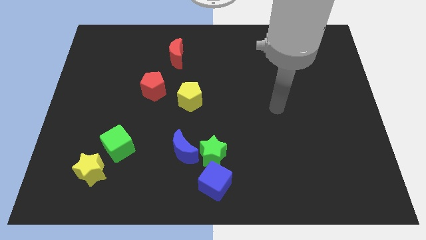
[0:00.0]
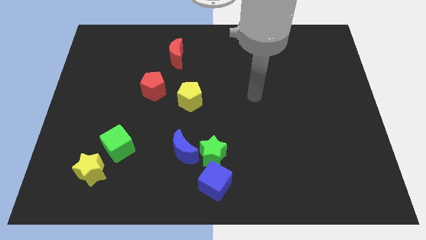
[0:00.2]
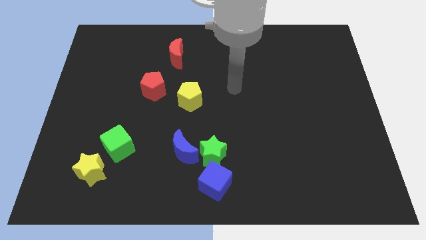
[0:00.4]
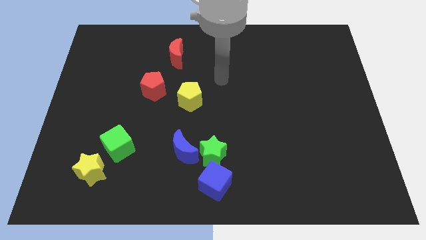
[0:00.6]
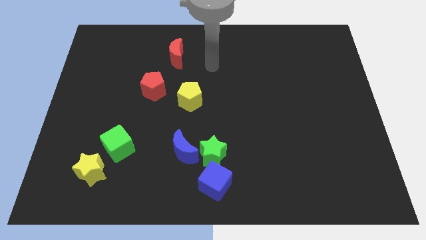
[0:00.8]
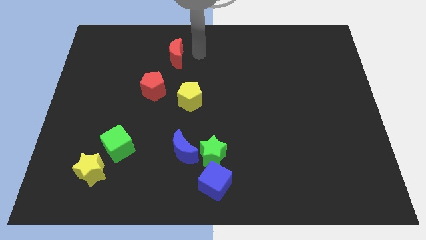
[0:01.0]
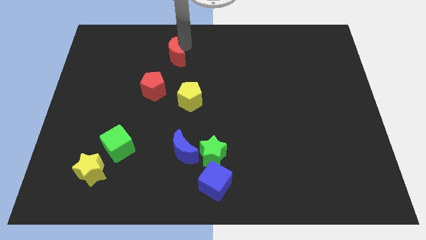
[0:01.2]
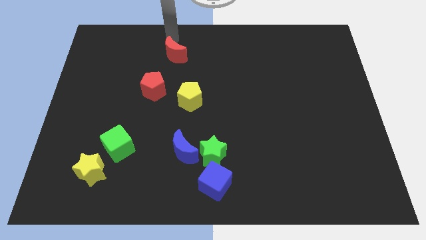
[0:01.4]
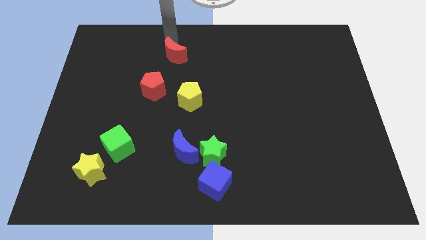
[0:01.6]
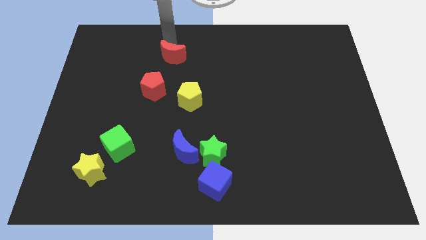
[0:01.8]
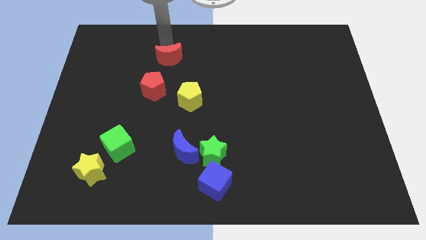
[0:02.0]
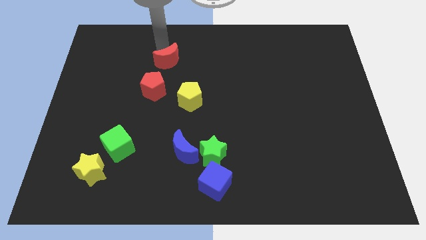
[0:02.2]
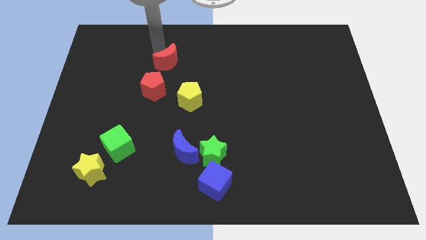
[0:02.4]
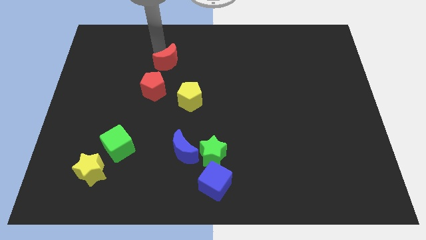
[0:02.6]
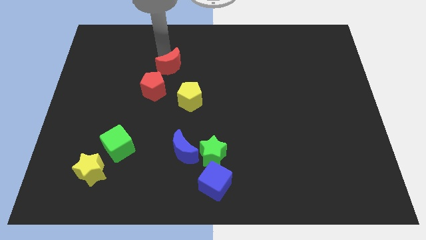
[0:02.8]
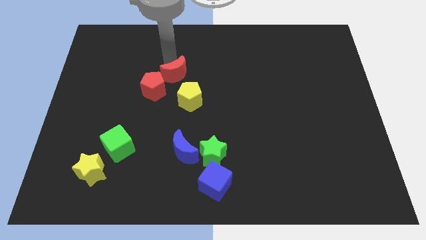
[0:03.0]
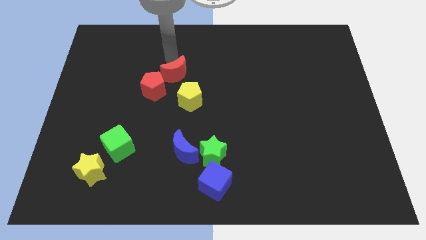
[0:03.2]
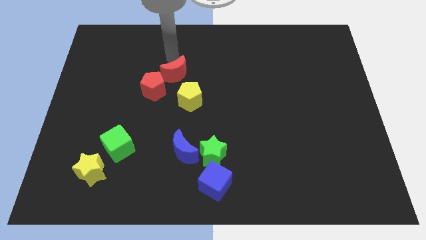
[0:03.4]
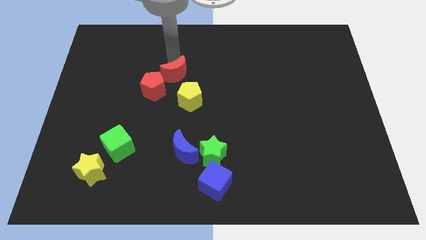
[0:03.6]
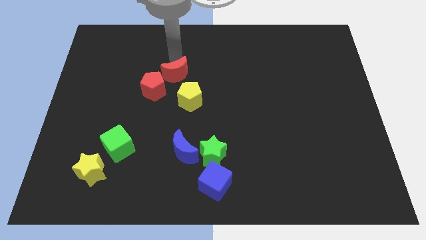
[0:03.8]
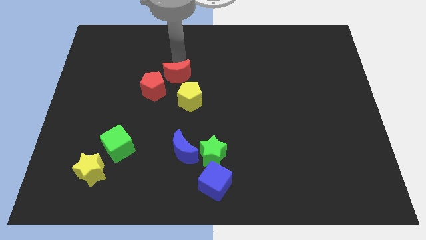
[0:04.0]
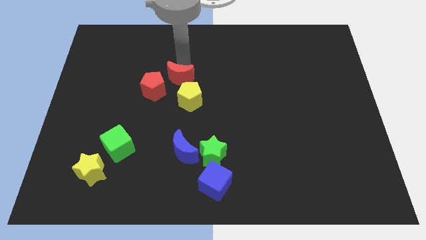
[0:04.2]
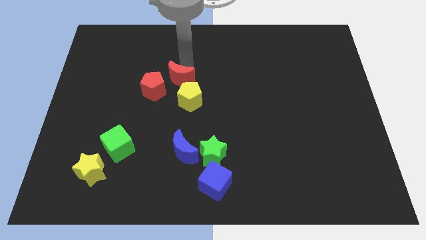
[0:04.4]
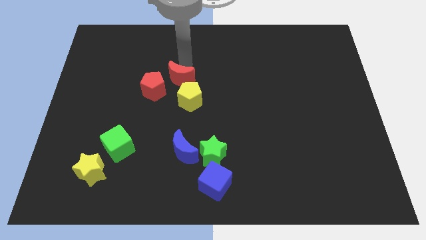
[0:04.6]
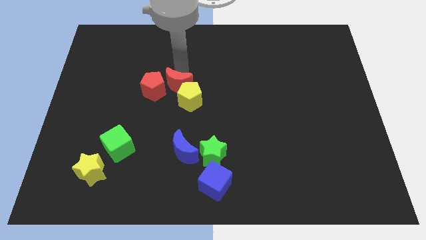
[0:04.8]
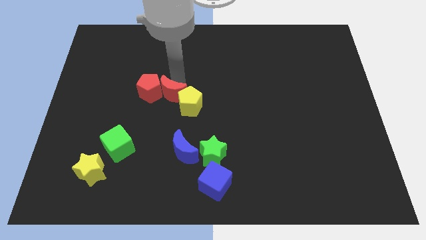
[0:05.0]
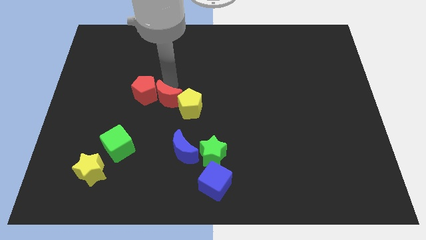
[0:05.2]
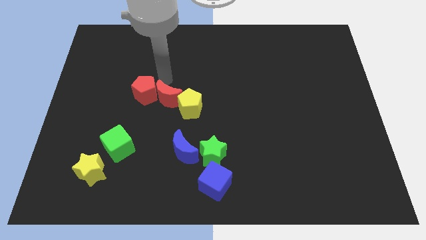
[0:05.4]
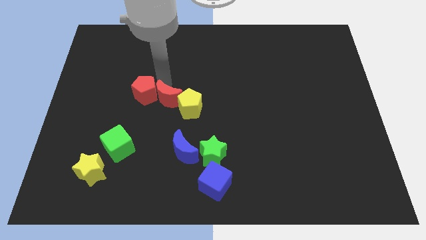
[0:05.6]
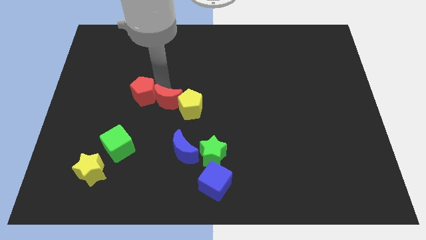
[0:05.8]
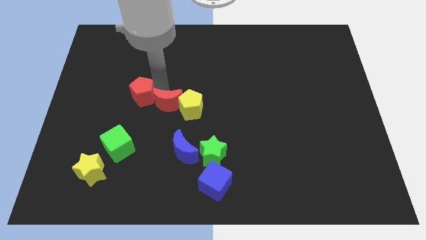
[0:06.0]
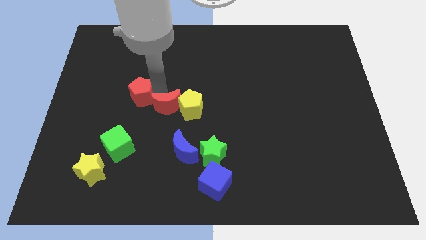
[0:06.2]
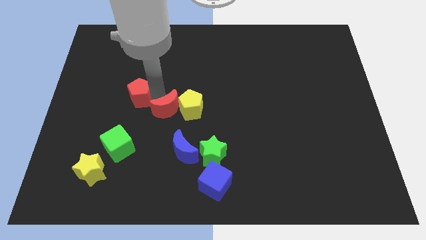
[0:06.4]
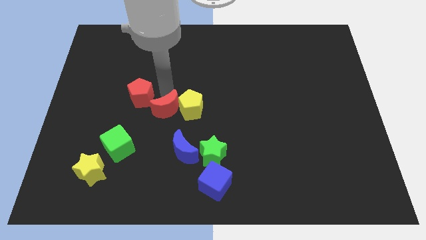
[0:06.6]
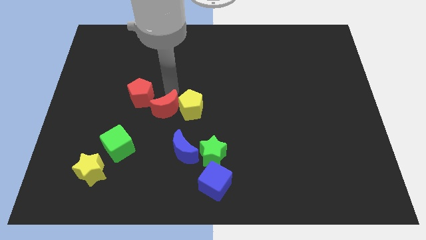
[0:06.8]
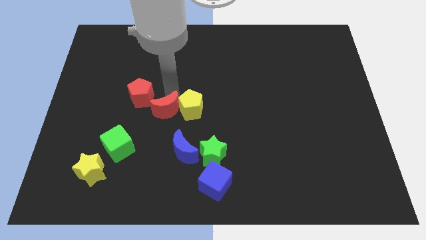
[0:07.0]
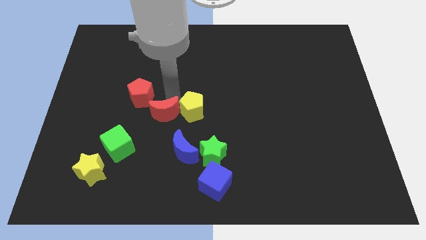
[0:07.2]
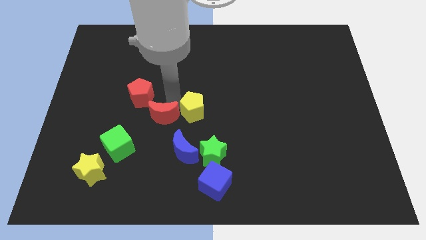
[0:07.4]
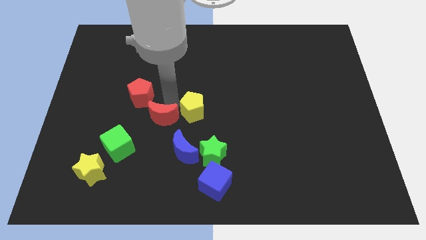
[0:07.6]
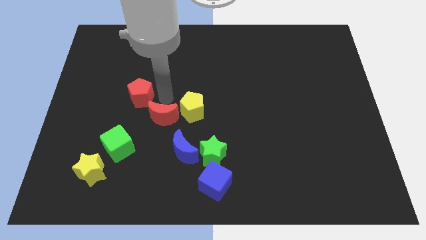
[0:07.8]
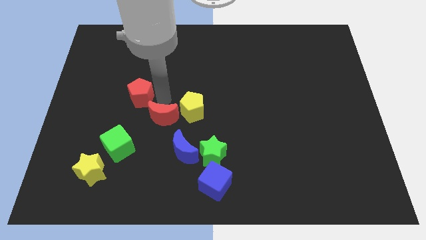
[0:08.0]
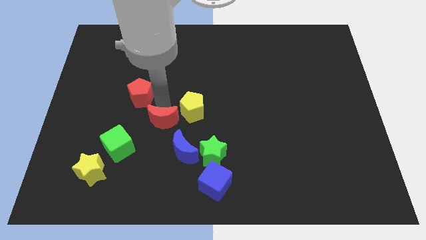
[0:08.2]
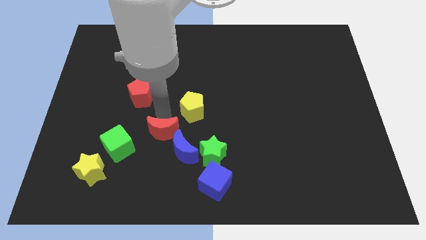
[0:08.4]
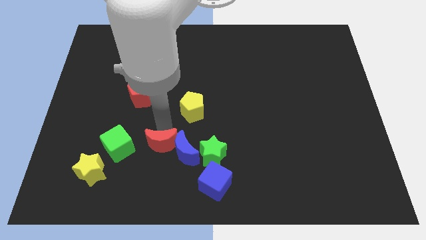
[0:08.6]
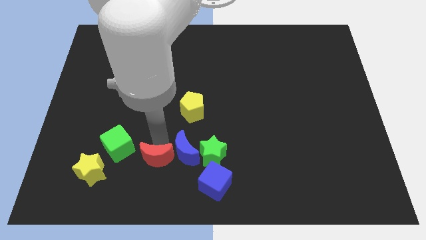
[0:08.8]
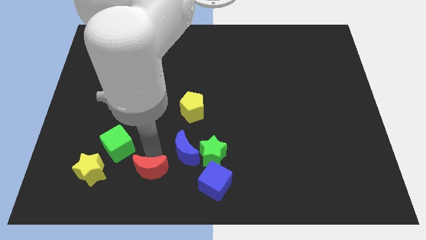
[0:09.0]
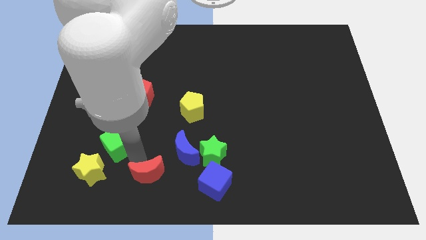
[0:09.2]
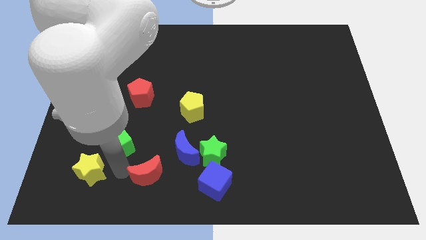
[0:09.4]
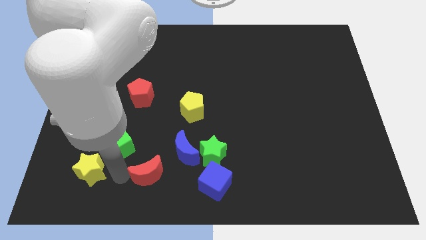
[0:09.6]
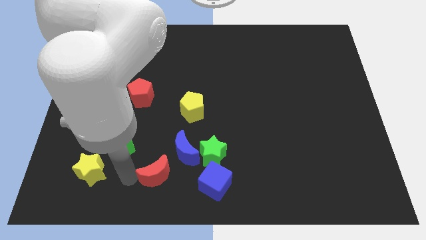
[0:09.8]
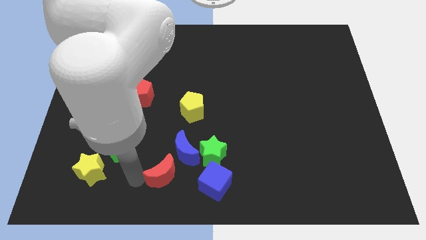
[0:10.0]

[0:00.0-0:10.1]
push the red moon to the bottom left of the green star

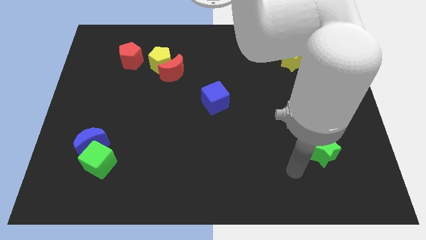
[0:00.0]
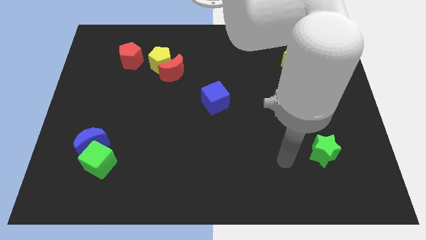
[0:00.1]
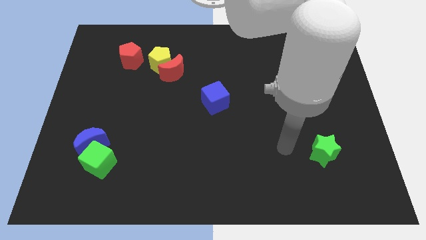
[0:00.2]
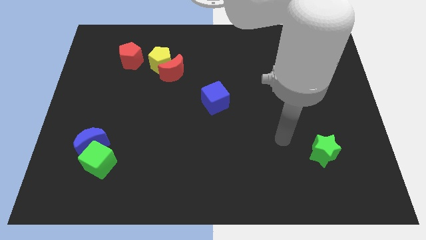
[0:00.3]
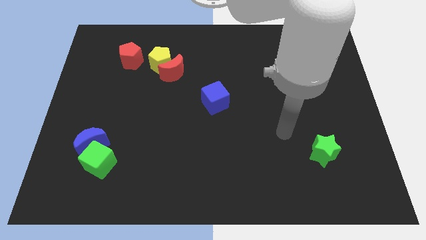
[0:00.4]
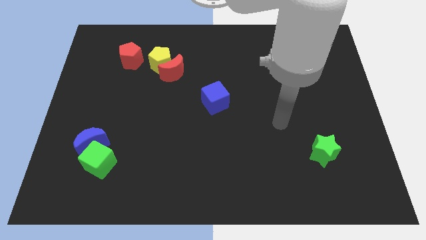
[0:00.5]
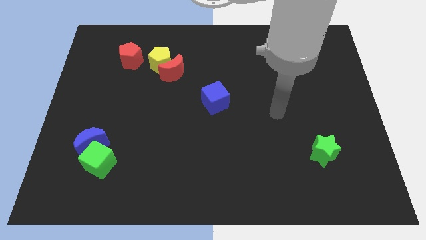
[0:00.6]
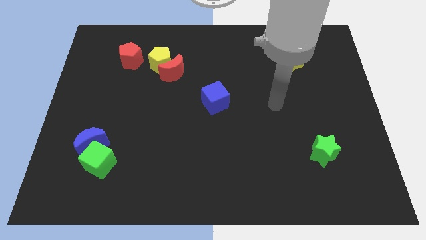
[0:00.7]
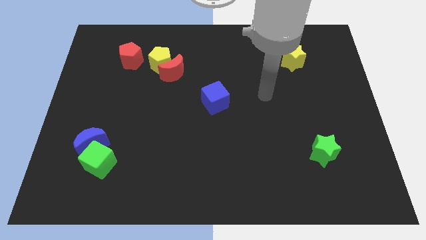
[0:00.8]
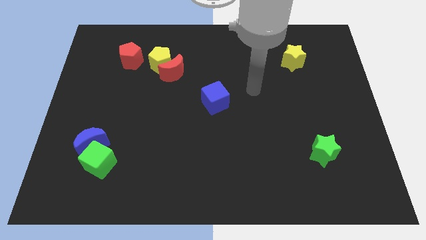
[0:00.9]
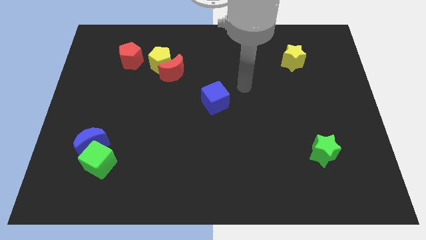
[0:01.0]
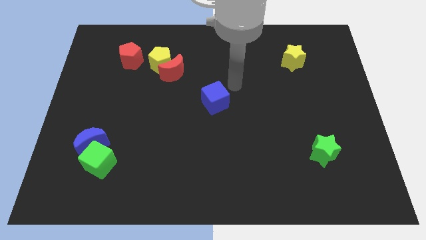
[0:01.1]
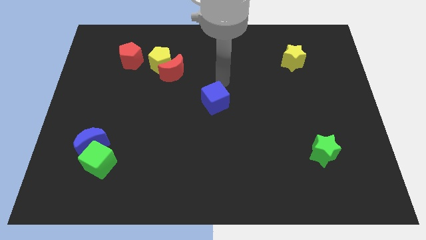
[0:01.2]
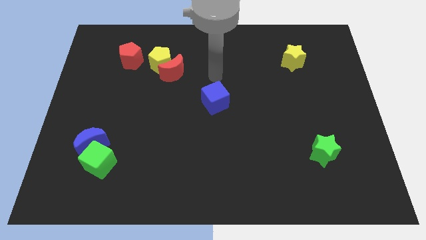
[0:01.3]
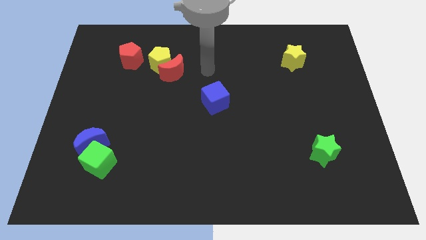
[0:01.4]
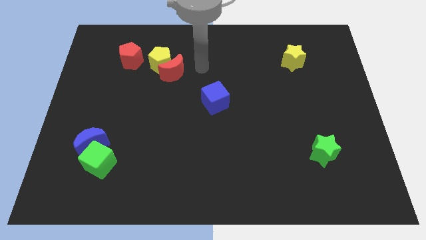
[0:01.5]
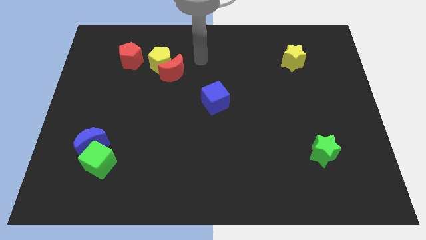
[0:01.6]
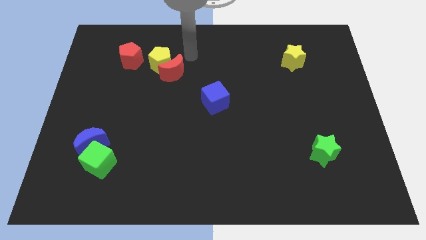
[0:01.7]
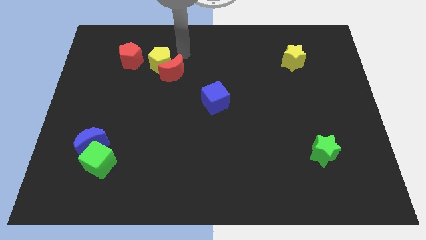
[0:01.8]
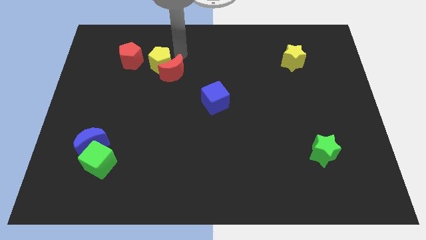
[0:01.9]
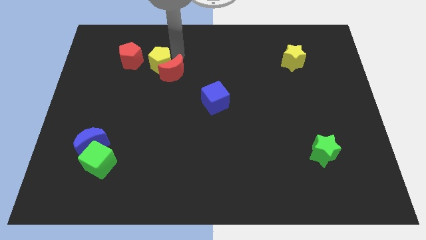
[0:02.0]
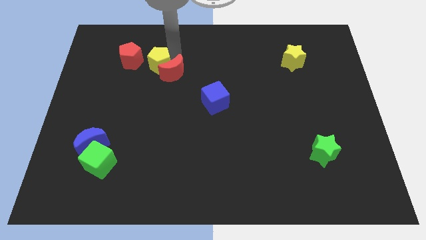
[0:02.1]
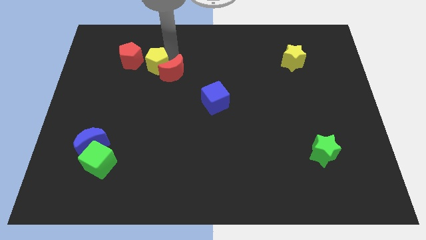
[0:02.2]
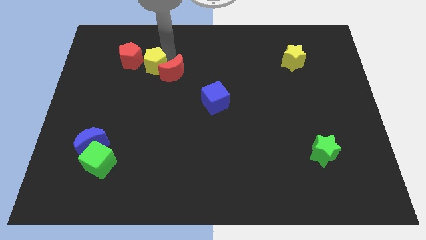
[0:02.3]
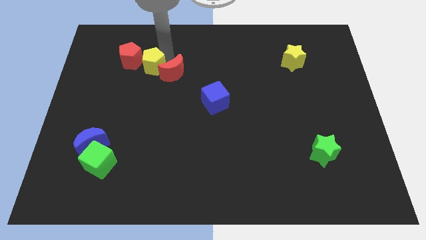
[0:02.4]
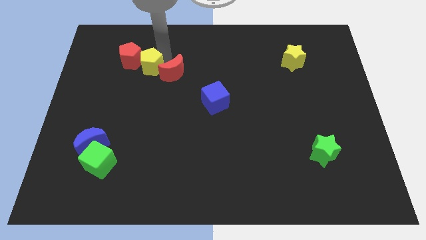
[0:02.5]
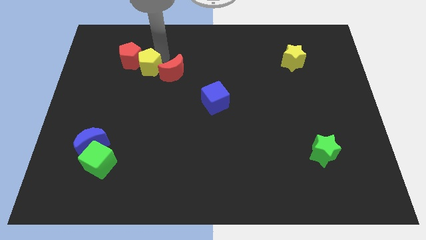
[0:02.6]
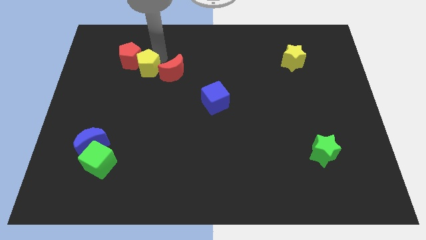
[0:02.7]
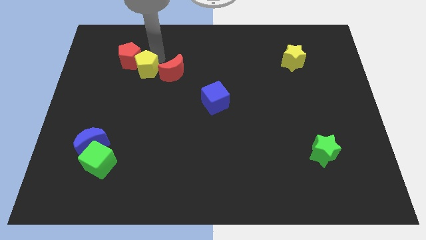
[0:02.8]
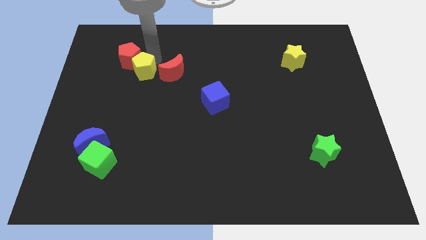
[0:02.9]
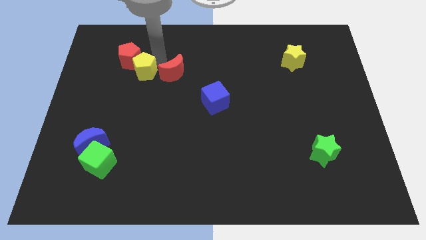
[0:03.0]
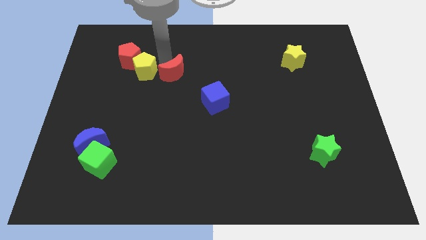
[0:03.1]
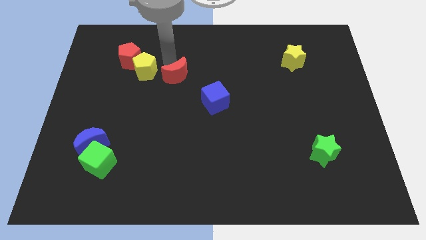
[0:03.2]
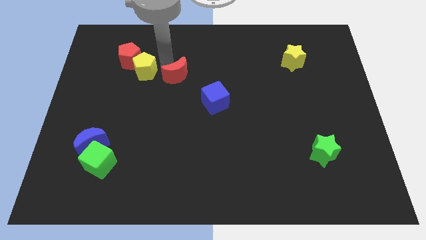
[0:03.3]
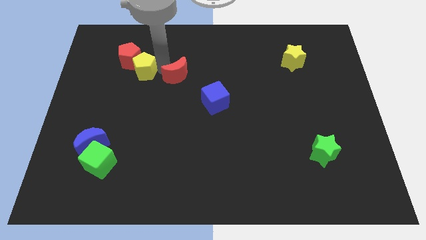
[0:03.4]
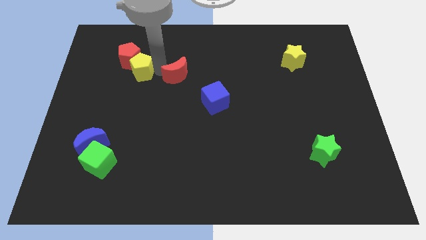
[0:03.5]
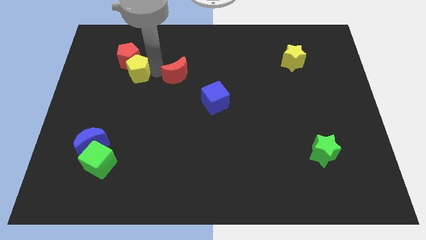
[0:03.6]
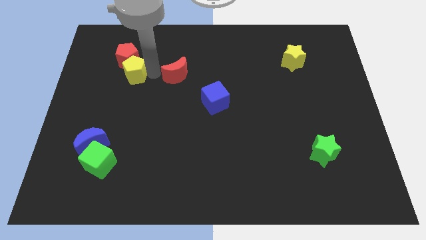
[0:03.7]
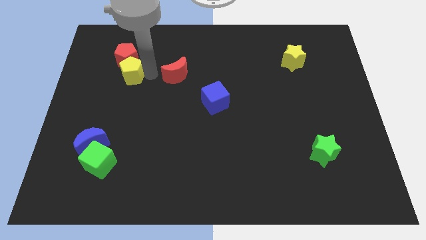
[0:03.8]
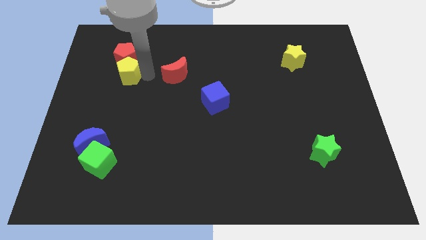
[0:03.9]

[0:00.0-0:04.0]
slide the yellow pentagon diagonally down and to the left of the red pentagon
